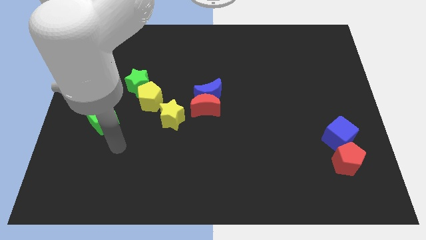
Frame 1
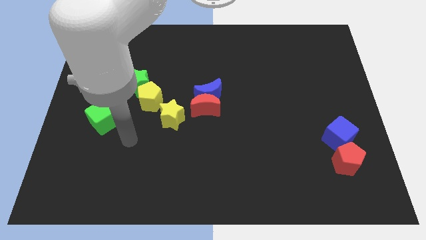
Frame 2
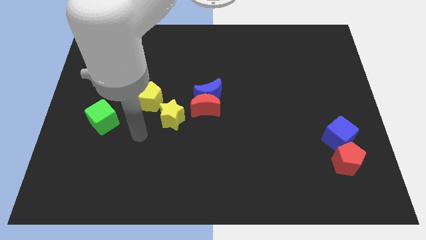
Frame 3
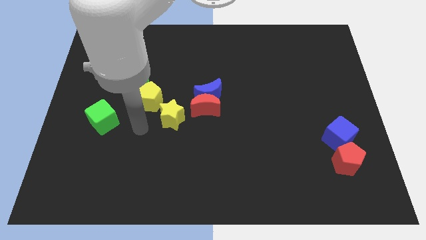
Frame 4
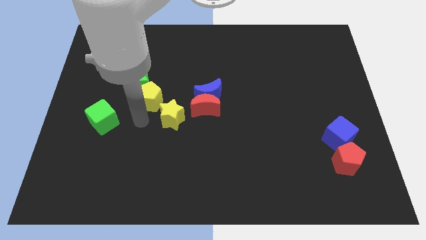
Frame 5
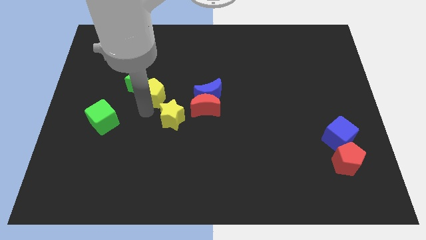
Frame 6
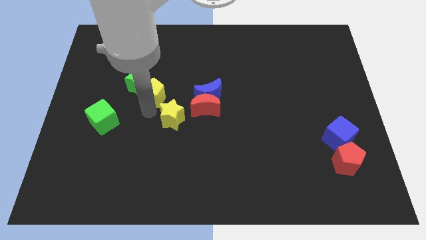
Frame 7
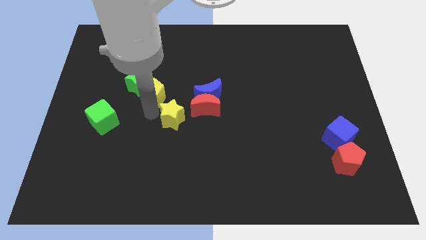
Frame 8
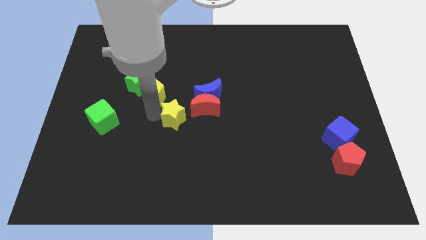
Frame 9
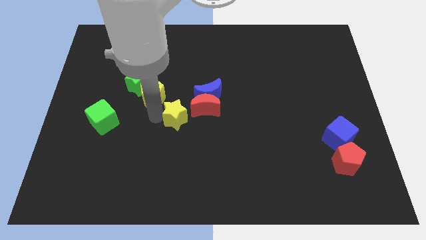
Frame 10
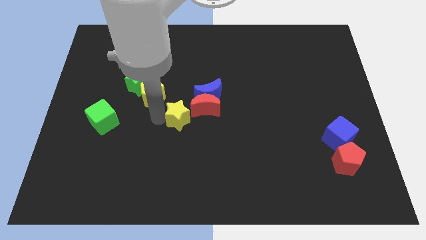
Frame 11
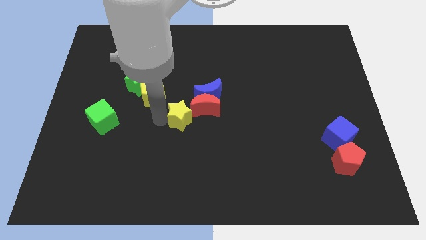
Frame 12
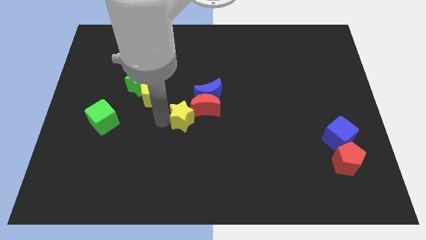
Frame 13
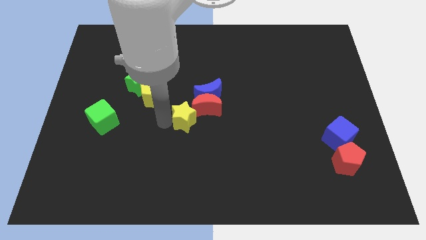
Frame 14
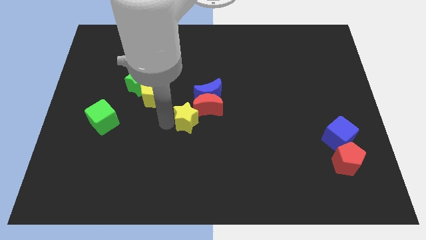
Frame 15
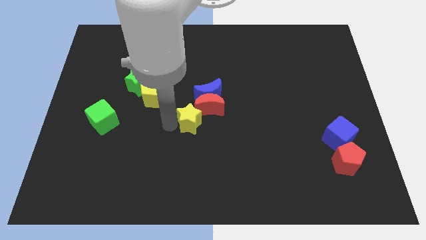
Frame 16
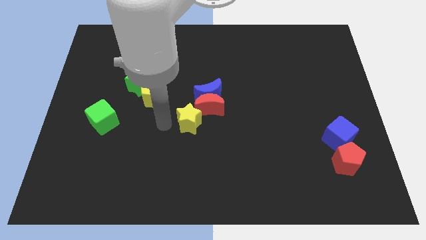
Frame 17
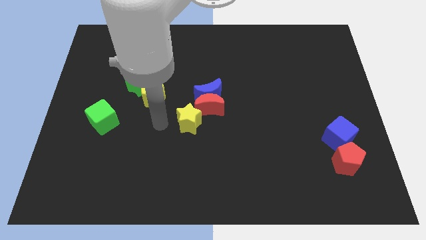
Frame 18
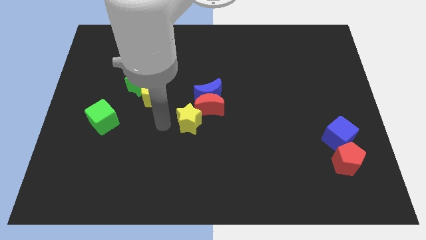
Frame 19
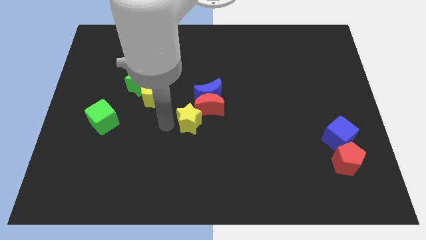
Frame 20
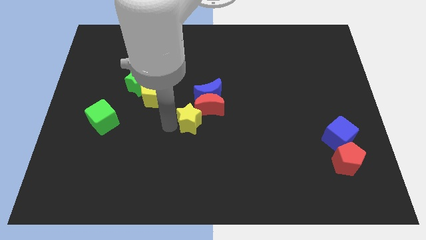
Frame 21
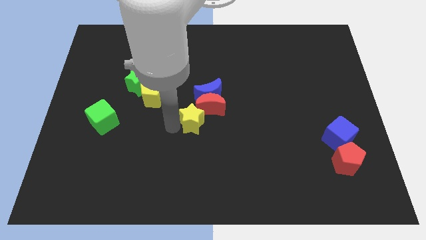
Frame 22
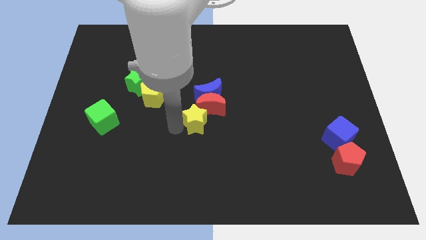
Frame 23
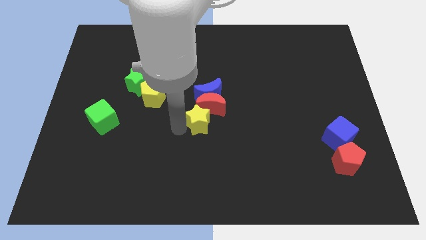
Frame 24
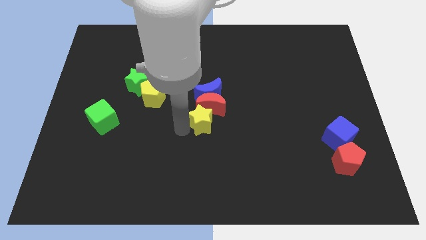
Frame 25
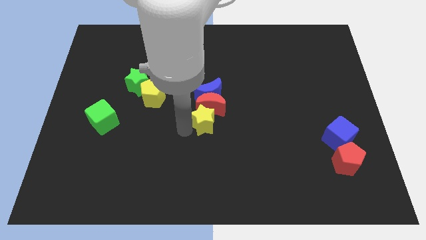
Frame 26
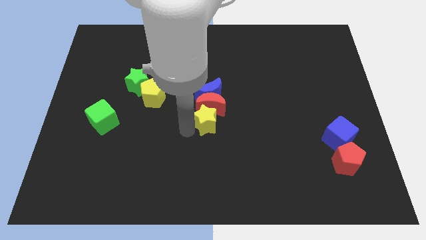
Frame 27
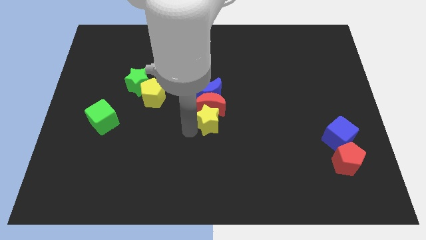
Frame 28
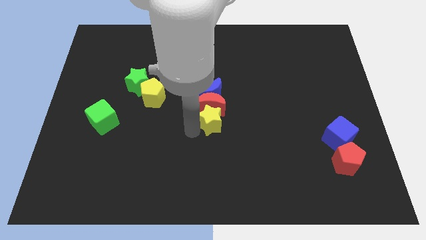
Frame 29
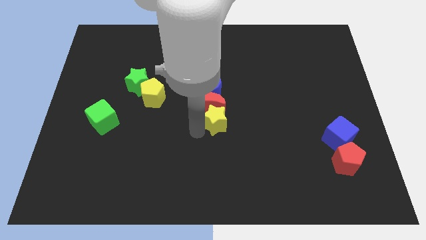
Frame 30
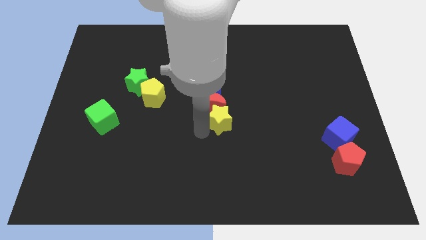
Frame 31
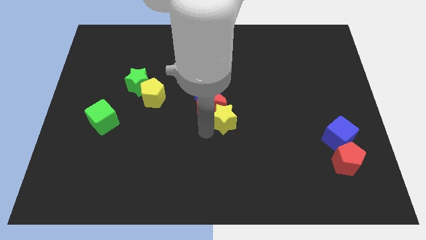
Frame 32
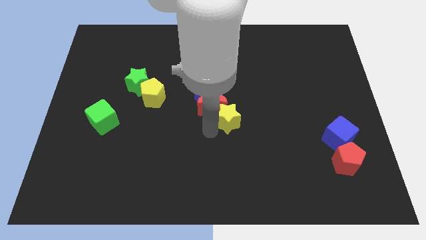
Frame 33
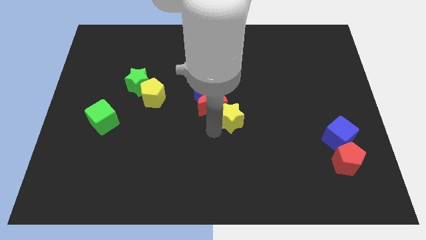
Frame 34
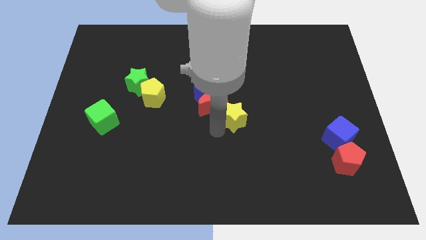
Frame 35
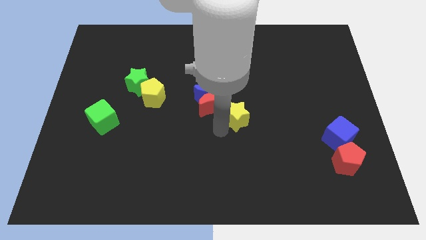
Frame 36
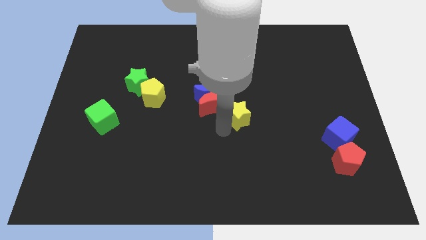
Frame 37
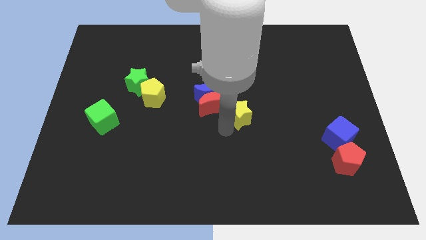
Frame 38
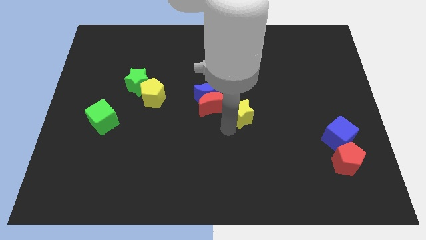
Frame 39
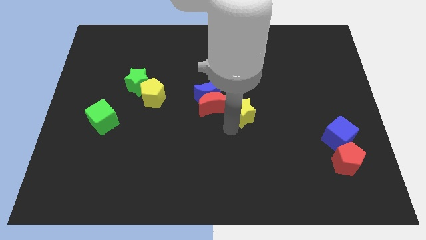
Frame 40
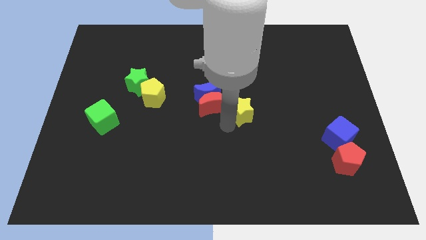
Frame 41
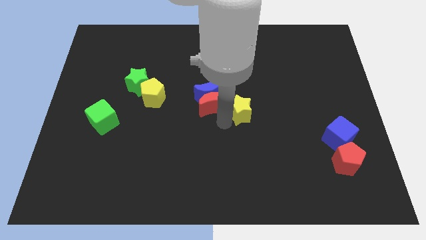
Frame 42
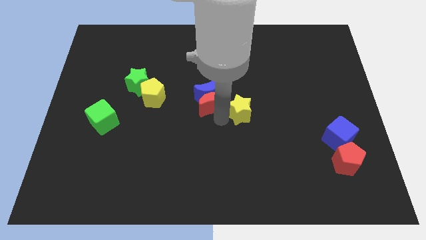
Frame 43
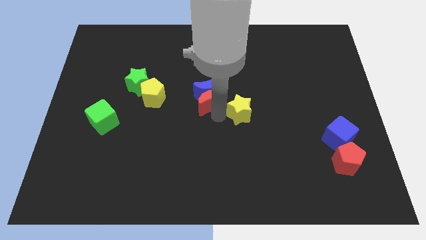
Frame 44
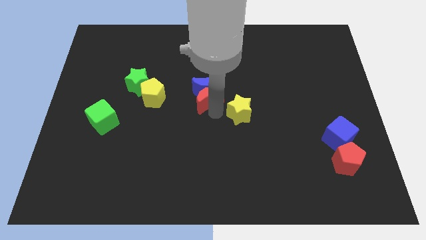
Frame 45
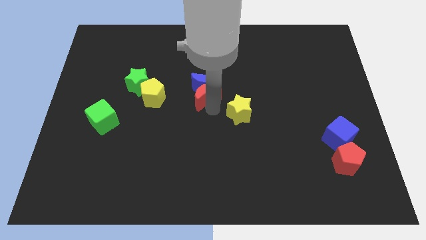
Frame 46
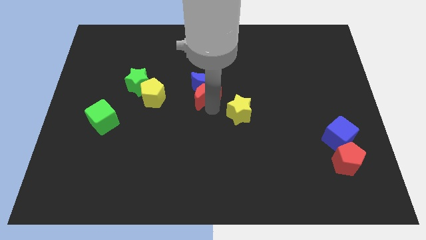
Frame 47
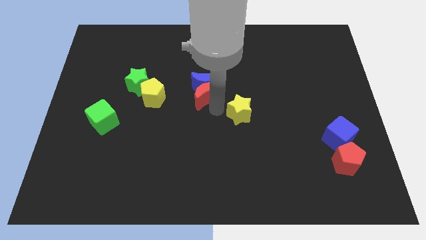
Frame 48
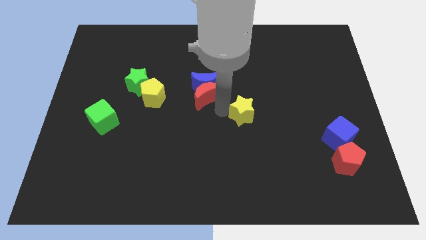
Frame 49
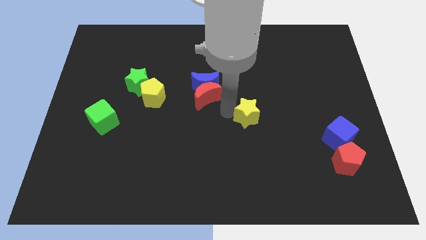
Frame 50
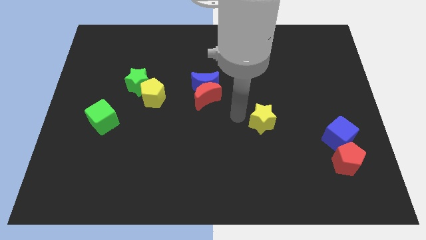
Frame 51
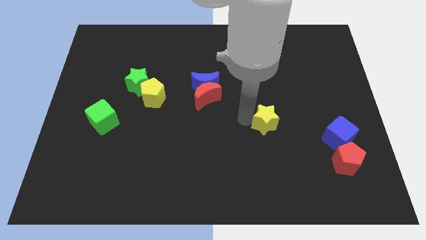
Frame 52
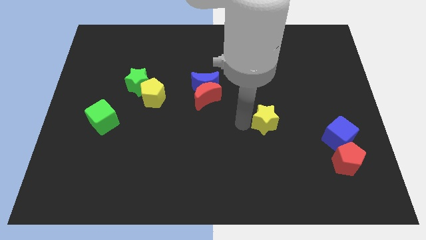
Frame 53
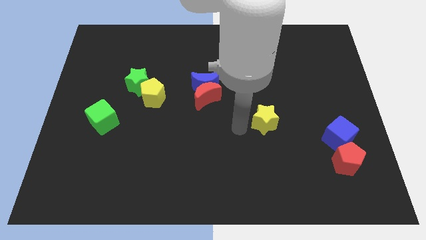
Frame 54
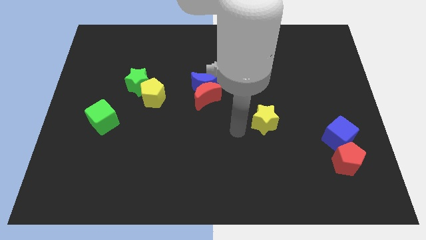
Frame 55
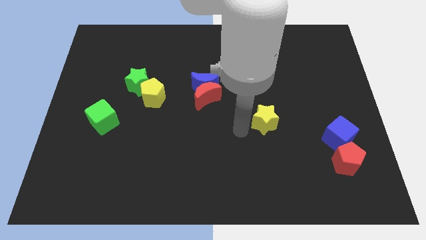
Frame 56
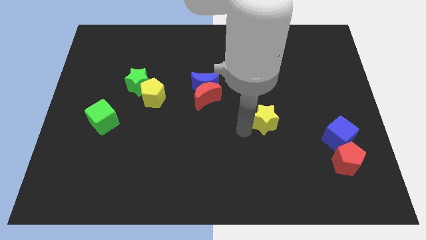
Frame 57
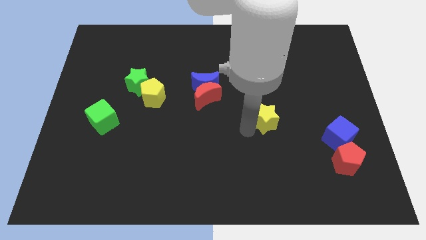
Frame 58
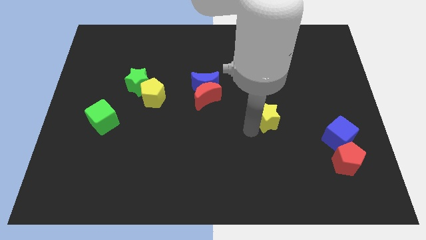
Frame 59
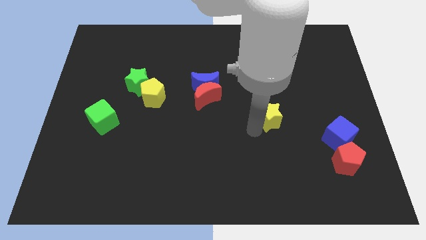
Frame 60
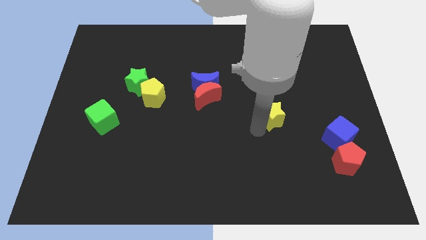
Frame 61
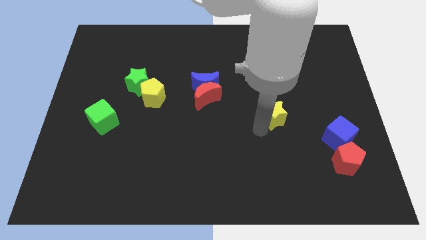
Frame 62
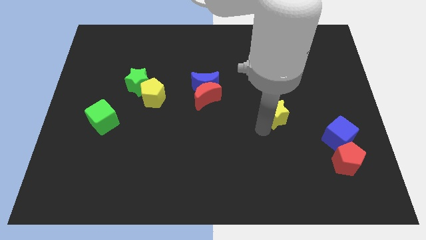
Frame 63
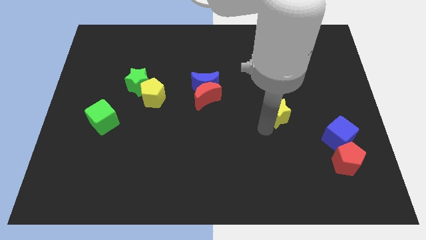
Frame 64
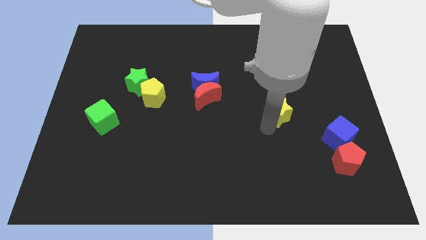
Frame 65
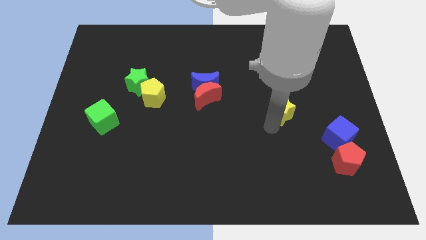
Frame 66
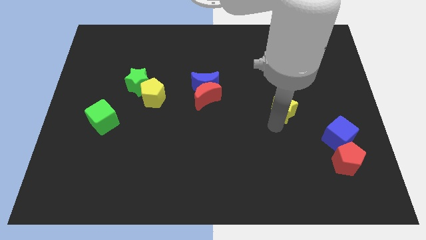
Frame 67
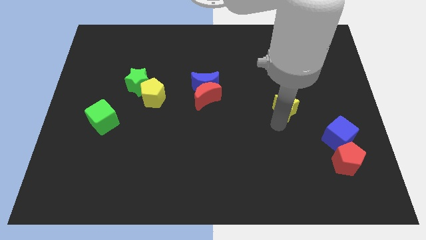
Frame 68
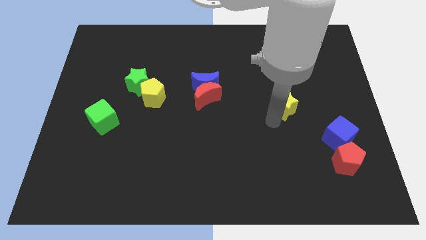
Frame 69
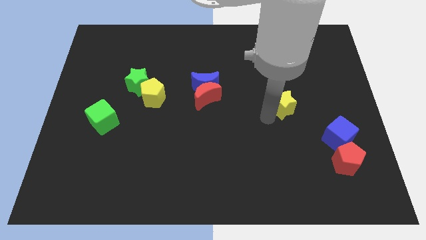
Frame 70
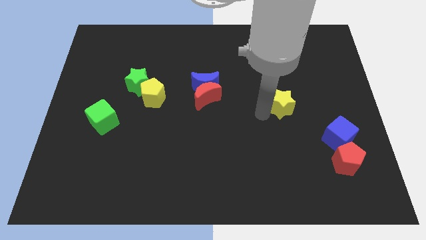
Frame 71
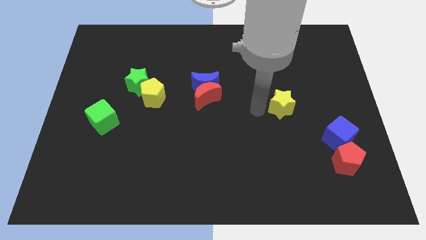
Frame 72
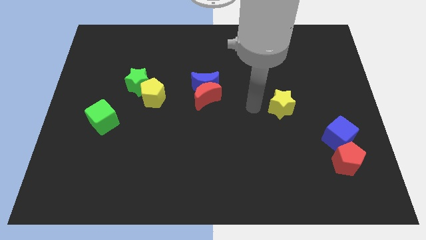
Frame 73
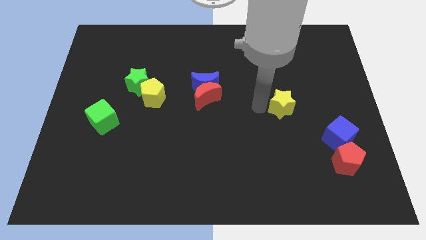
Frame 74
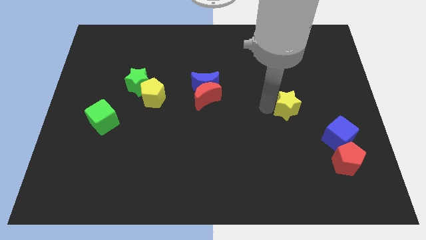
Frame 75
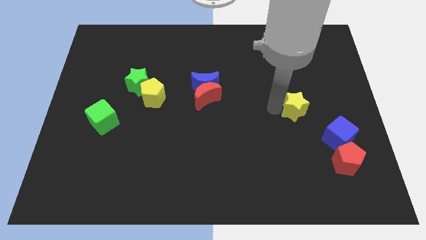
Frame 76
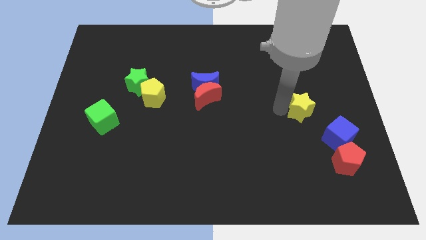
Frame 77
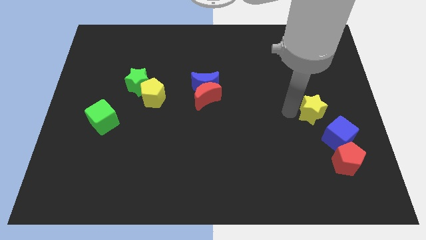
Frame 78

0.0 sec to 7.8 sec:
move the yellow star above the blue cube
